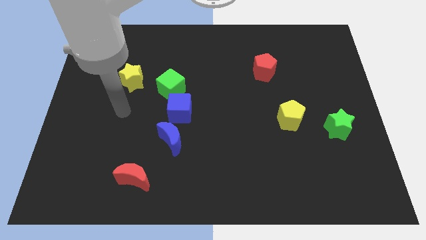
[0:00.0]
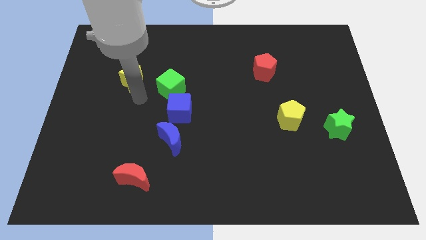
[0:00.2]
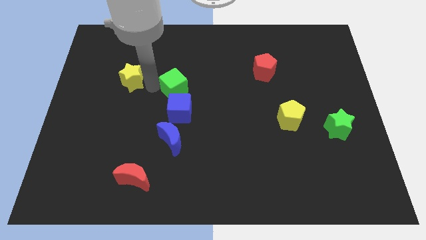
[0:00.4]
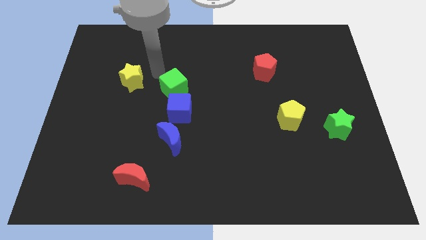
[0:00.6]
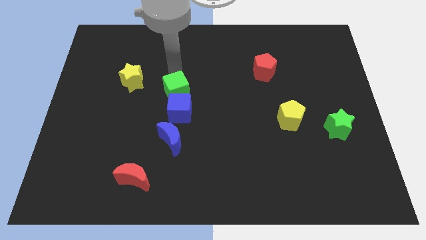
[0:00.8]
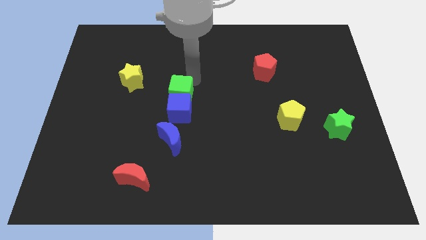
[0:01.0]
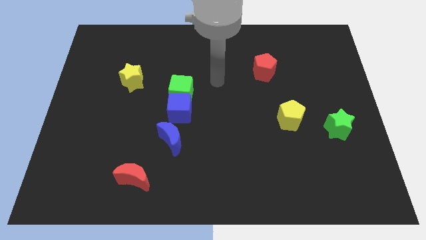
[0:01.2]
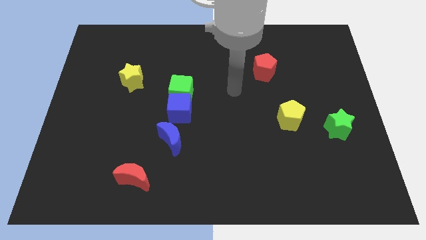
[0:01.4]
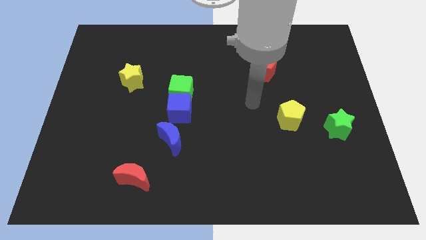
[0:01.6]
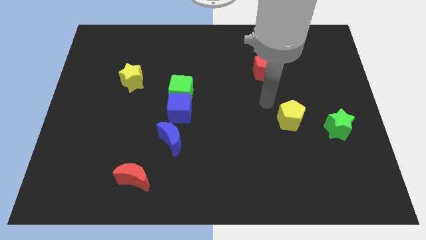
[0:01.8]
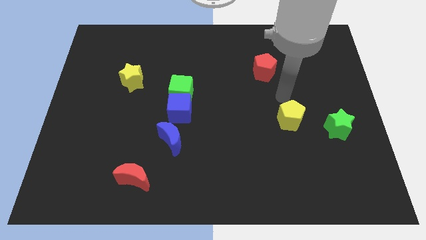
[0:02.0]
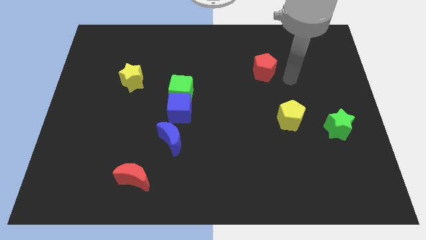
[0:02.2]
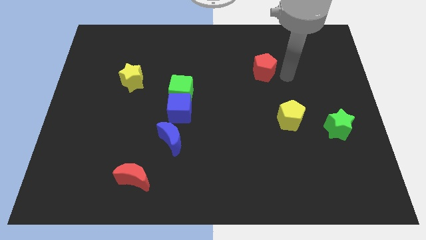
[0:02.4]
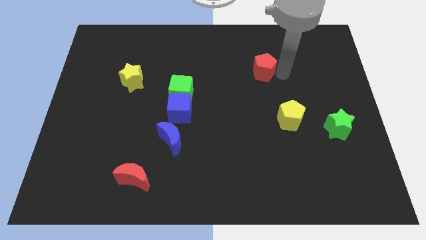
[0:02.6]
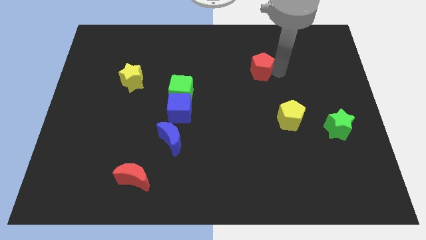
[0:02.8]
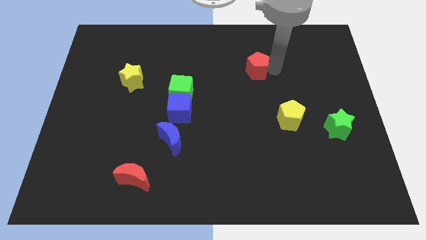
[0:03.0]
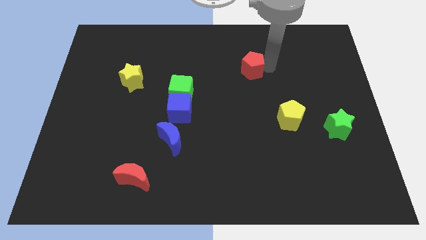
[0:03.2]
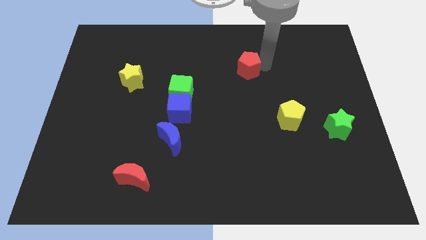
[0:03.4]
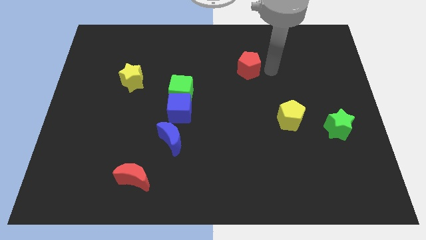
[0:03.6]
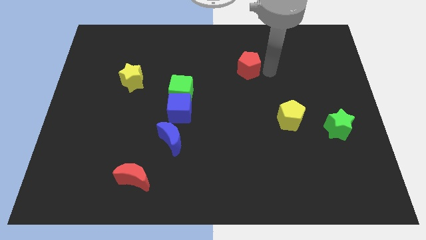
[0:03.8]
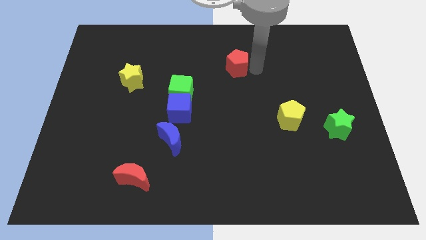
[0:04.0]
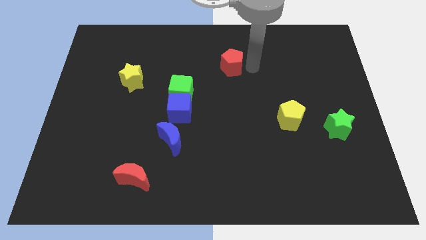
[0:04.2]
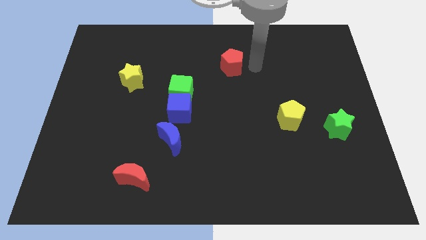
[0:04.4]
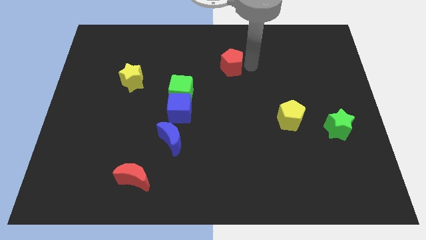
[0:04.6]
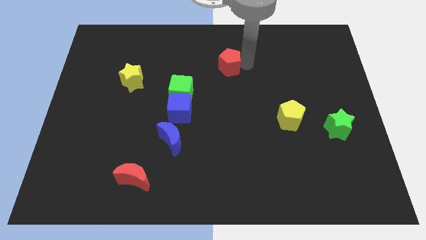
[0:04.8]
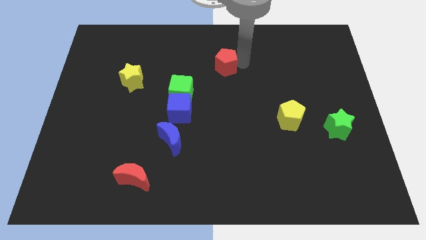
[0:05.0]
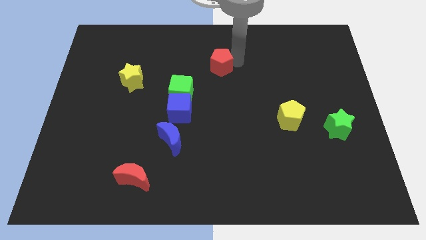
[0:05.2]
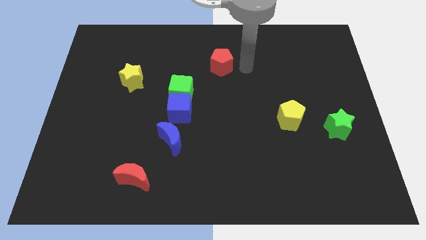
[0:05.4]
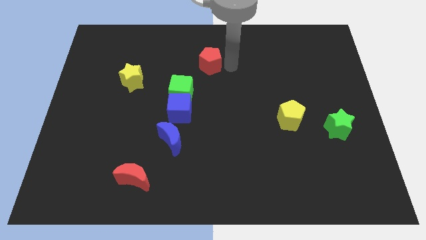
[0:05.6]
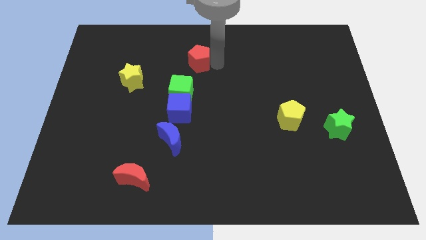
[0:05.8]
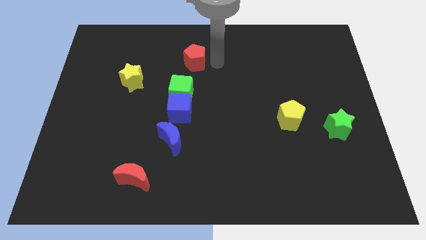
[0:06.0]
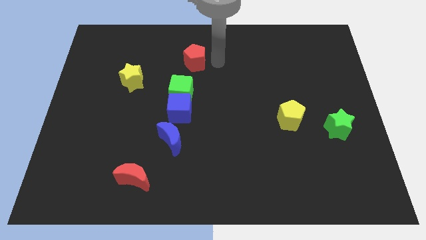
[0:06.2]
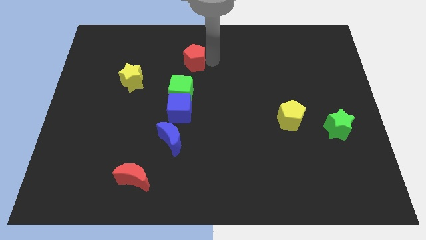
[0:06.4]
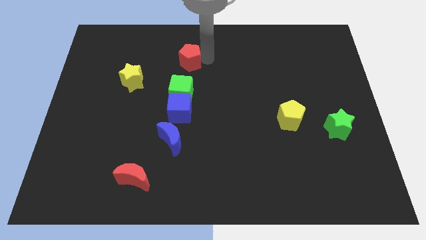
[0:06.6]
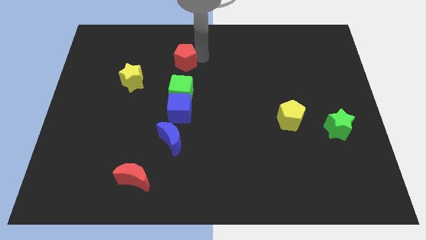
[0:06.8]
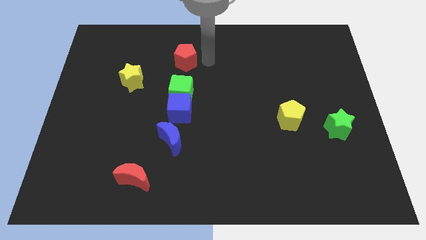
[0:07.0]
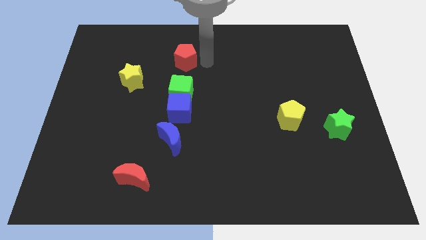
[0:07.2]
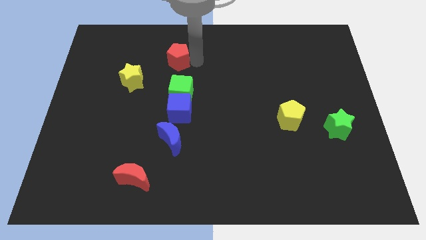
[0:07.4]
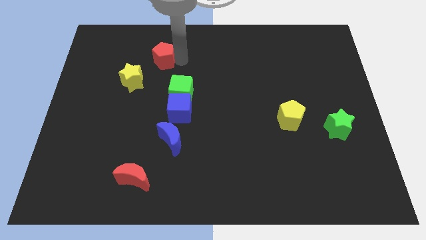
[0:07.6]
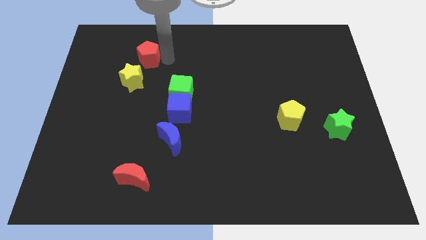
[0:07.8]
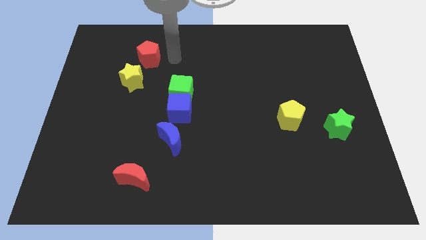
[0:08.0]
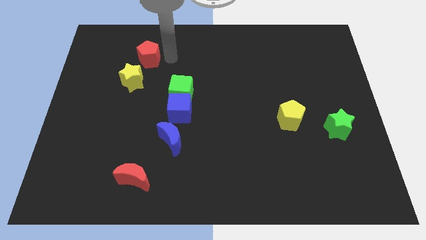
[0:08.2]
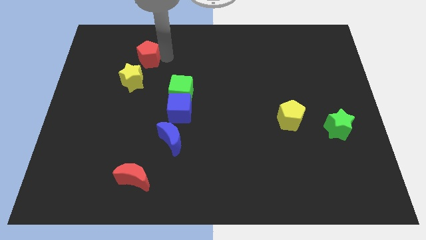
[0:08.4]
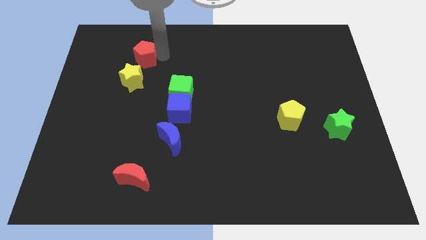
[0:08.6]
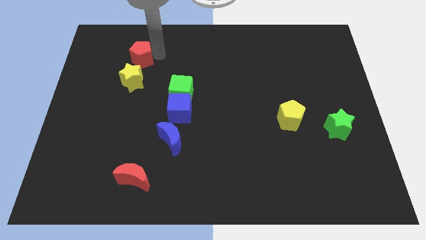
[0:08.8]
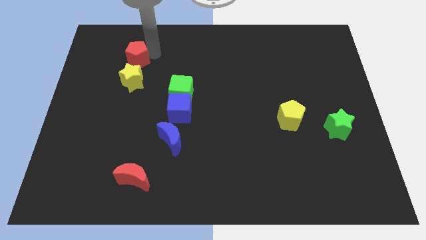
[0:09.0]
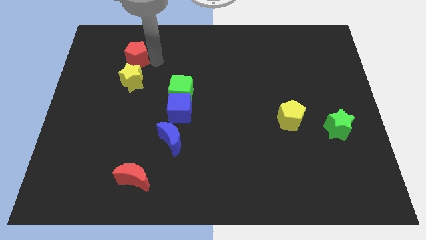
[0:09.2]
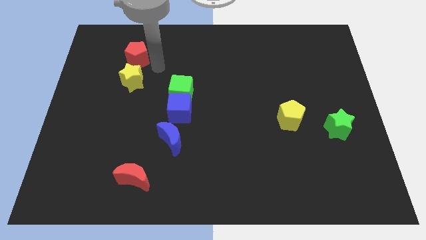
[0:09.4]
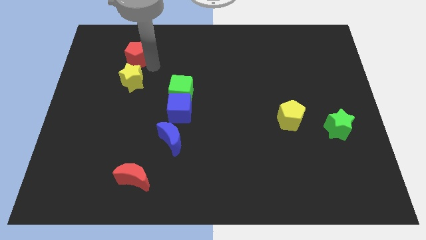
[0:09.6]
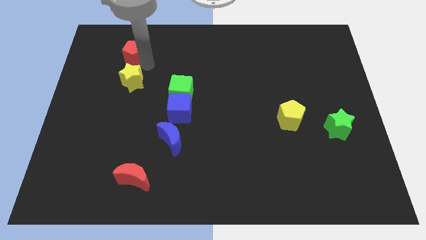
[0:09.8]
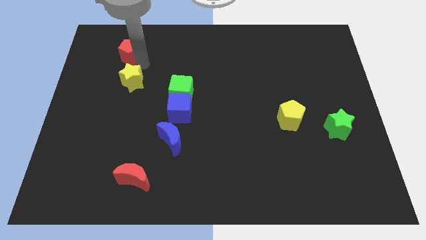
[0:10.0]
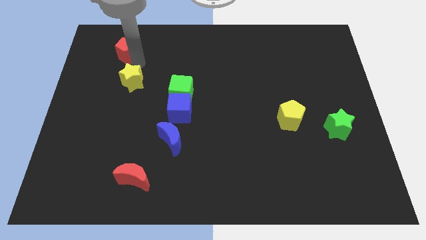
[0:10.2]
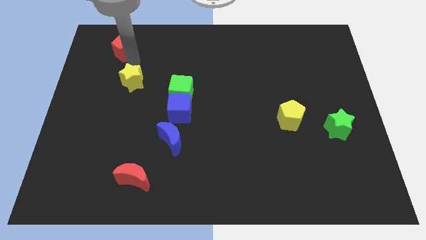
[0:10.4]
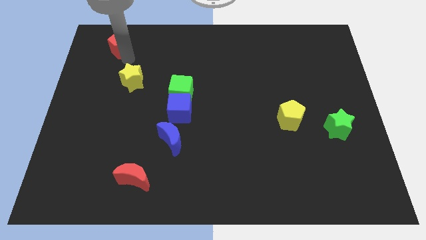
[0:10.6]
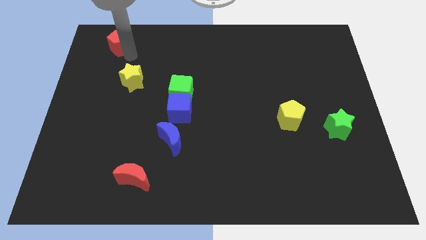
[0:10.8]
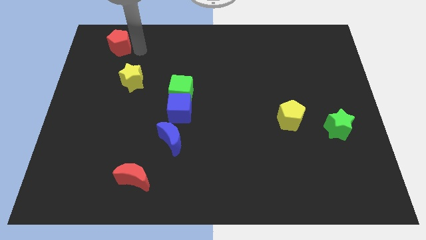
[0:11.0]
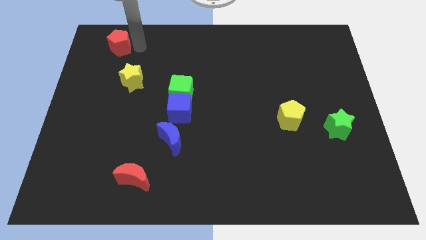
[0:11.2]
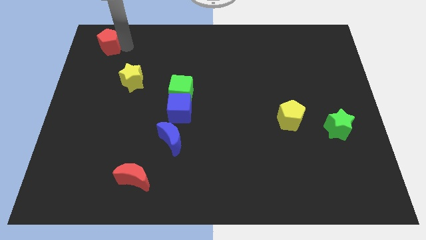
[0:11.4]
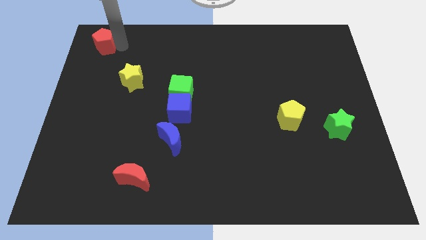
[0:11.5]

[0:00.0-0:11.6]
push the red pentagon to the top left
